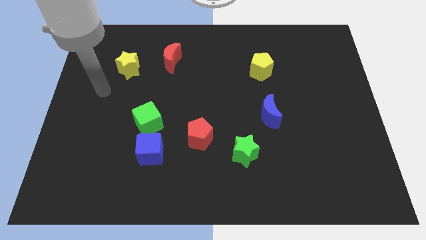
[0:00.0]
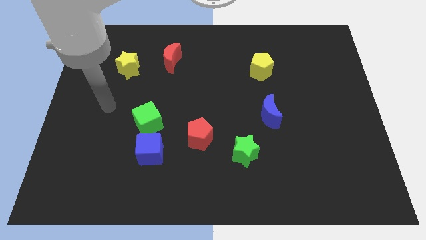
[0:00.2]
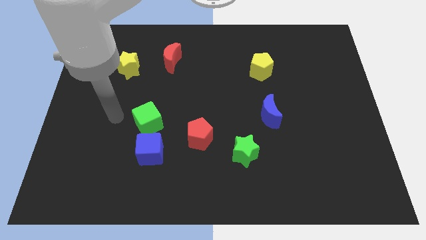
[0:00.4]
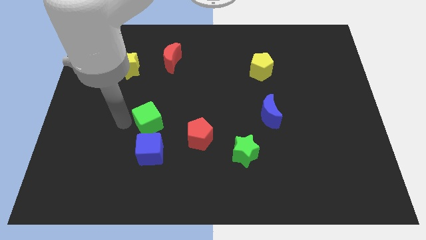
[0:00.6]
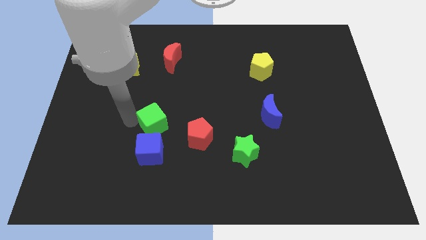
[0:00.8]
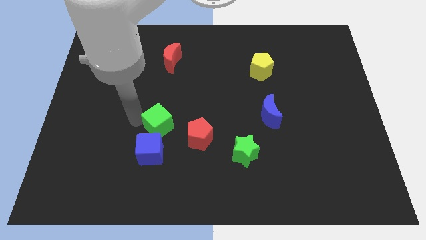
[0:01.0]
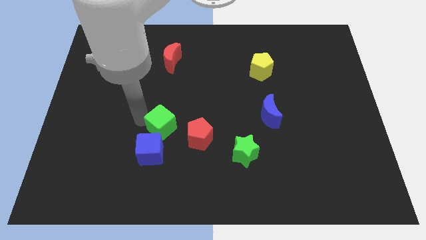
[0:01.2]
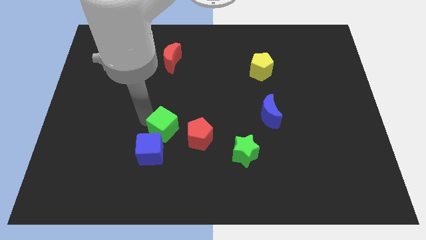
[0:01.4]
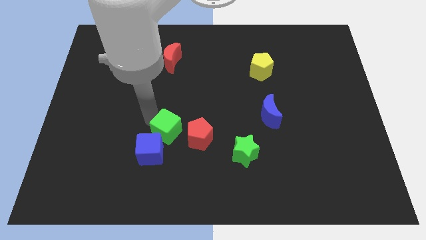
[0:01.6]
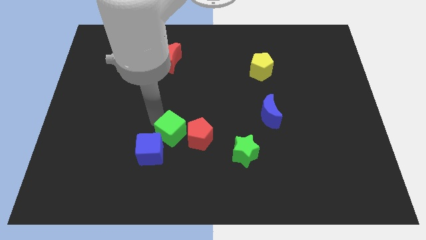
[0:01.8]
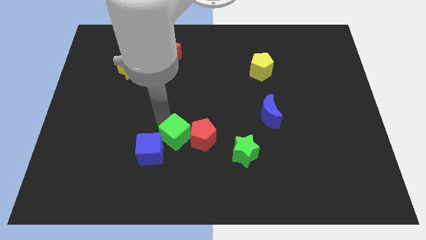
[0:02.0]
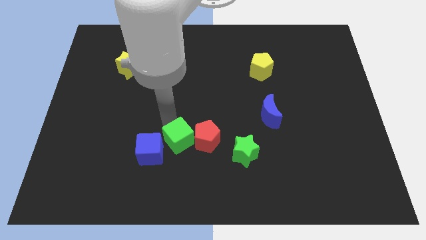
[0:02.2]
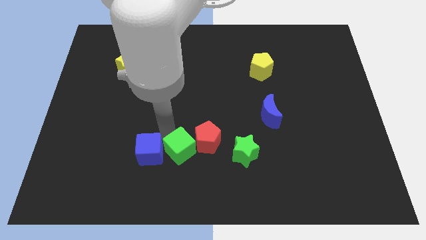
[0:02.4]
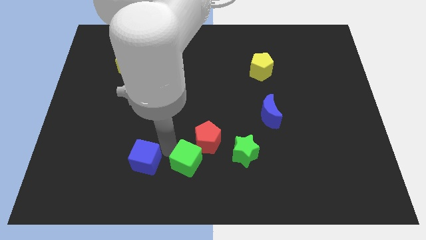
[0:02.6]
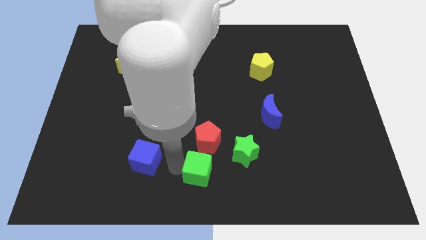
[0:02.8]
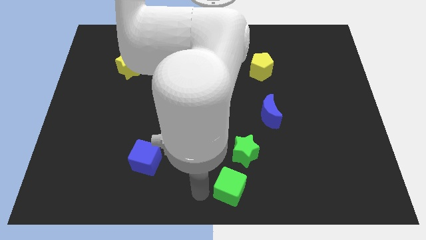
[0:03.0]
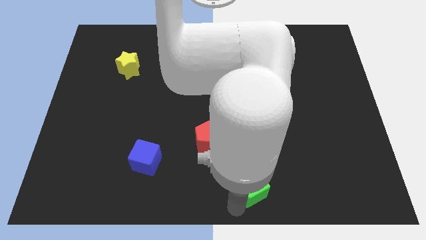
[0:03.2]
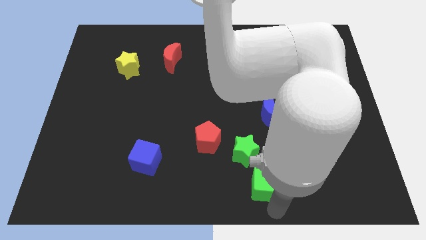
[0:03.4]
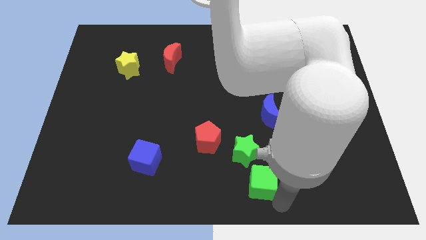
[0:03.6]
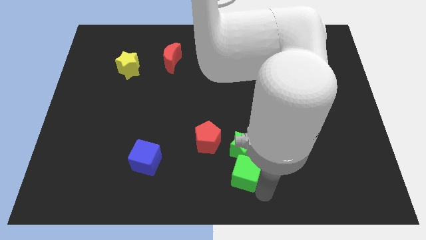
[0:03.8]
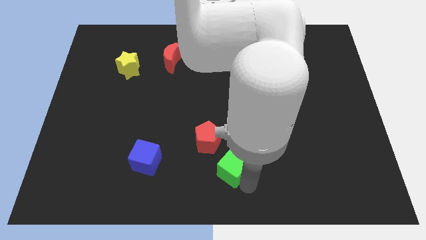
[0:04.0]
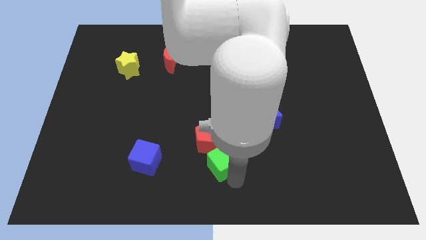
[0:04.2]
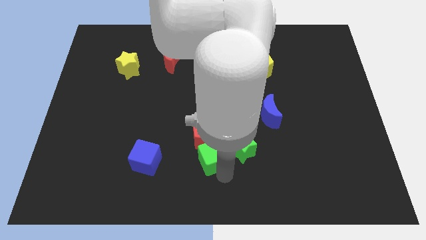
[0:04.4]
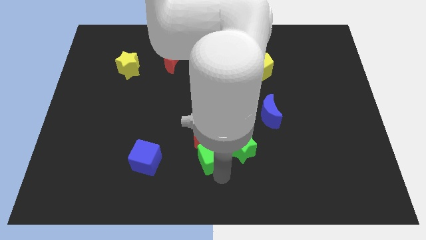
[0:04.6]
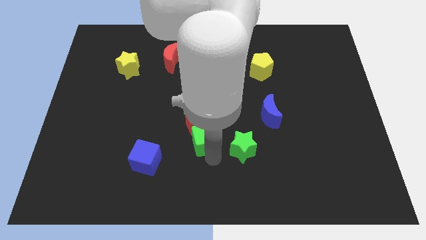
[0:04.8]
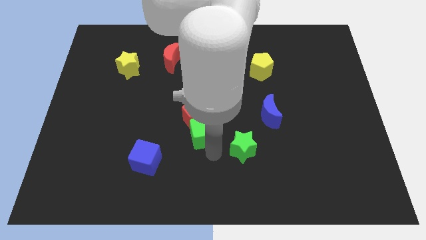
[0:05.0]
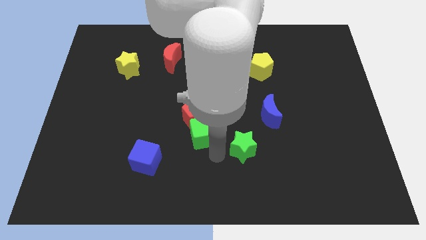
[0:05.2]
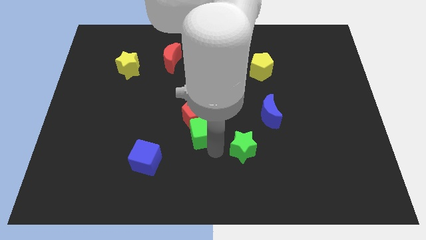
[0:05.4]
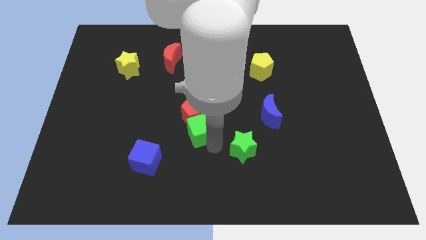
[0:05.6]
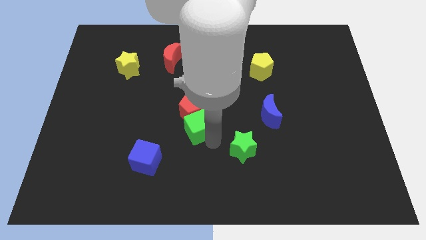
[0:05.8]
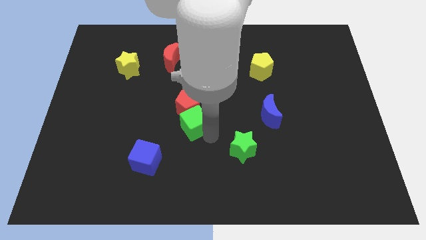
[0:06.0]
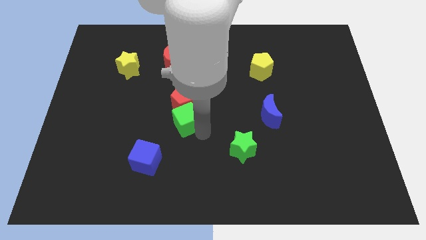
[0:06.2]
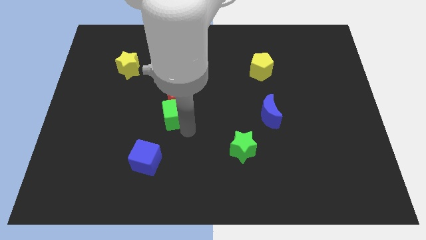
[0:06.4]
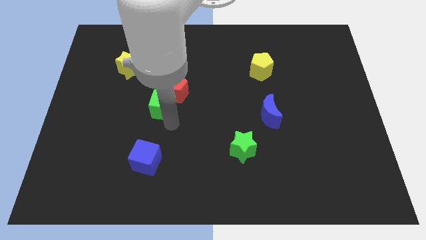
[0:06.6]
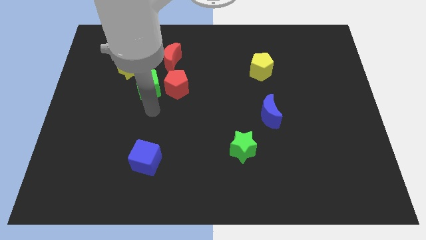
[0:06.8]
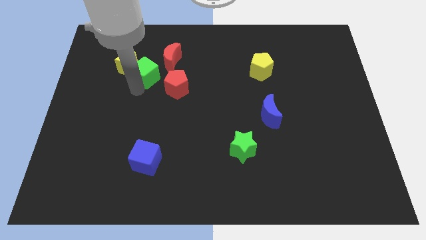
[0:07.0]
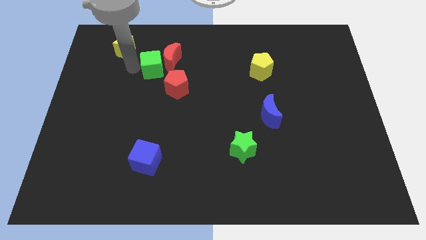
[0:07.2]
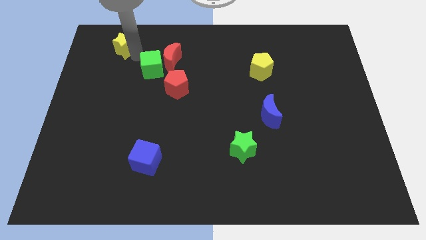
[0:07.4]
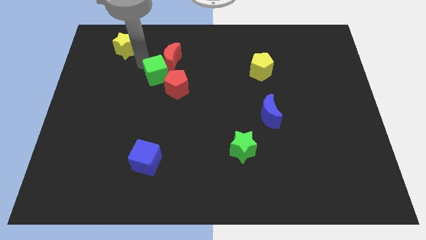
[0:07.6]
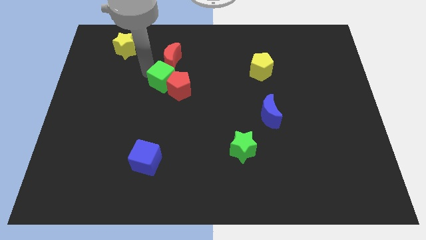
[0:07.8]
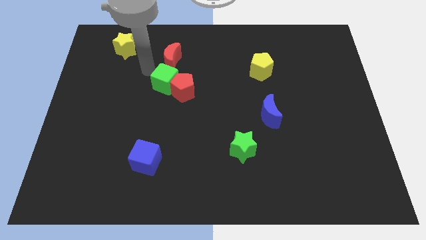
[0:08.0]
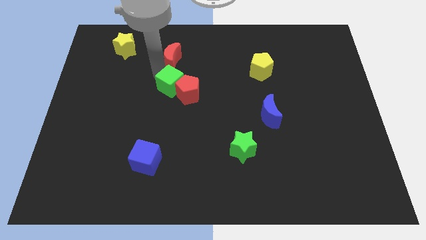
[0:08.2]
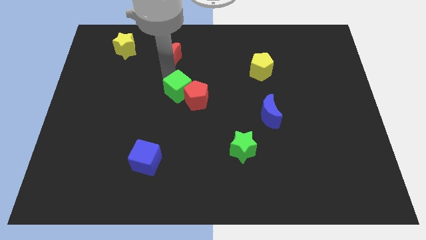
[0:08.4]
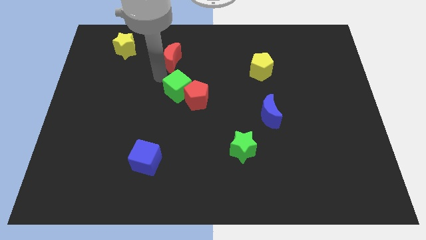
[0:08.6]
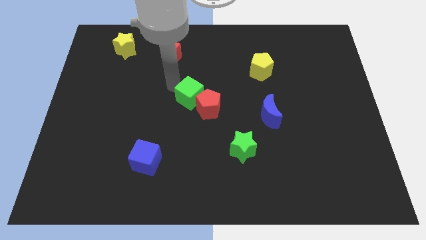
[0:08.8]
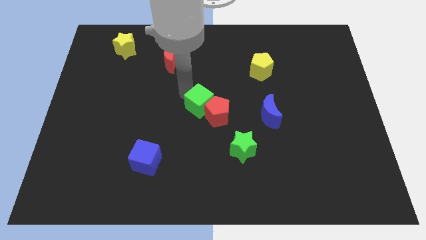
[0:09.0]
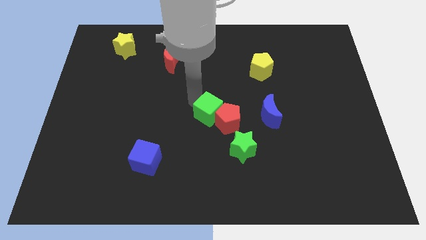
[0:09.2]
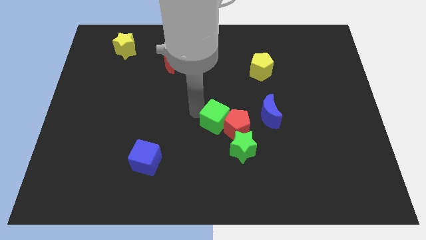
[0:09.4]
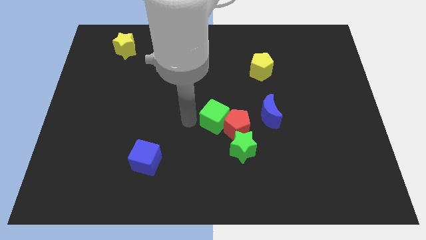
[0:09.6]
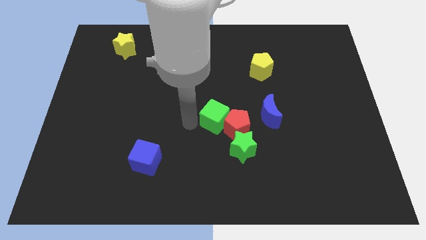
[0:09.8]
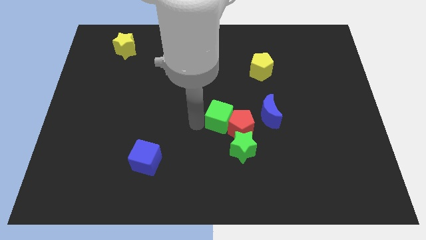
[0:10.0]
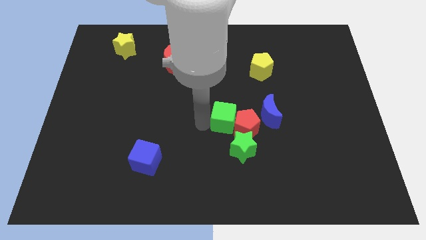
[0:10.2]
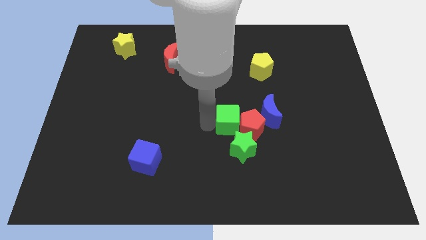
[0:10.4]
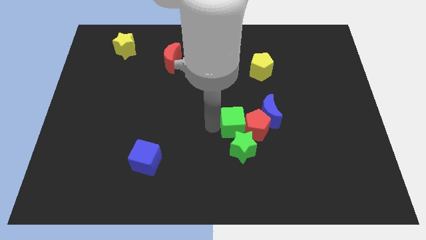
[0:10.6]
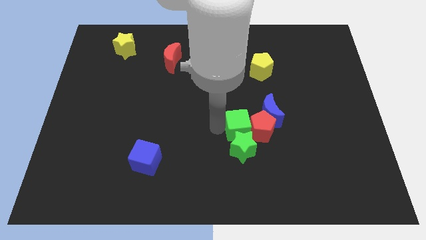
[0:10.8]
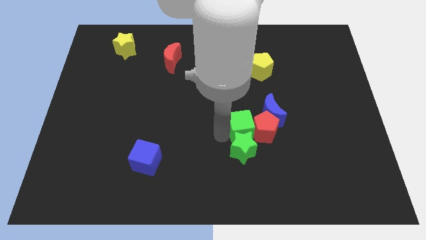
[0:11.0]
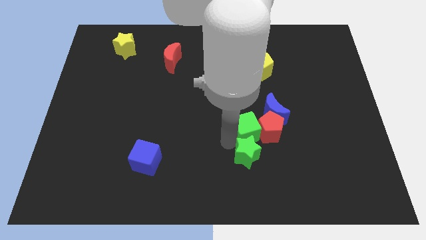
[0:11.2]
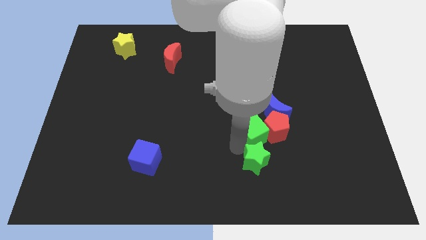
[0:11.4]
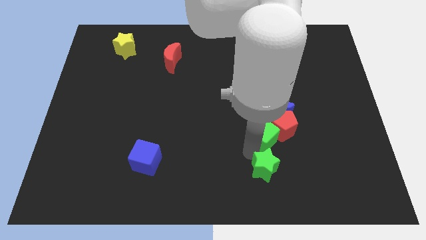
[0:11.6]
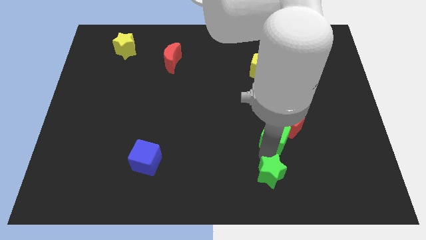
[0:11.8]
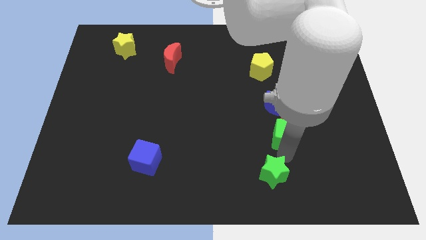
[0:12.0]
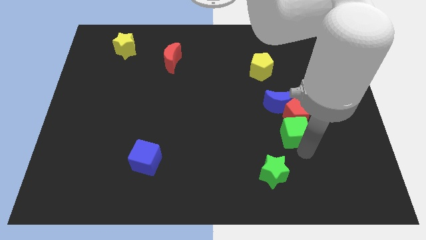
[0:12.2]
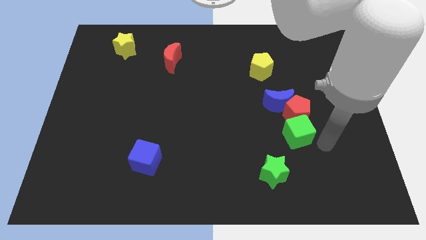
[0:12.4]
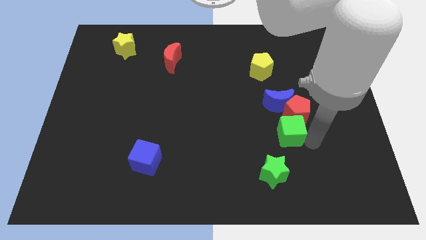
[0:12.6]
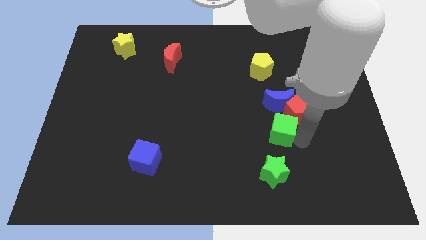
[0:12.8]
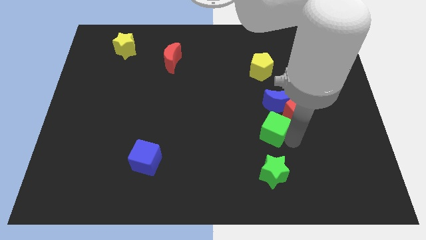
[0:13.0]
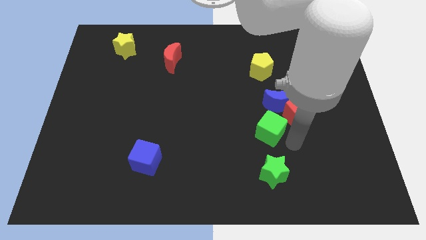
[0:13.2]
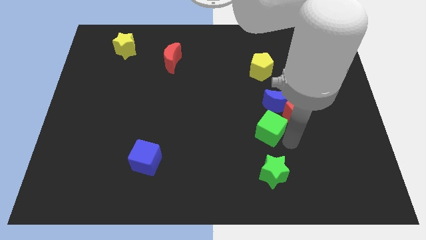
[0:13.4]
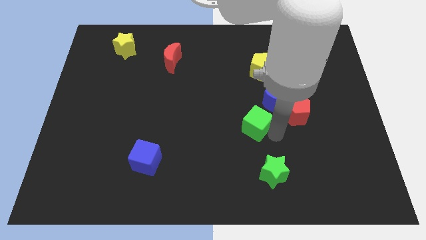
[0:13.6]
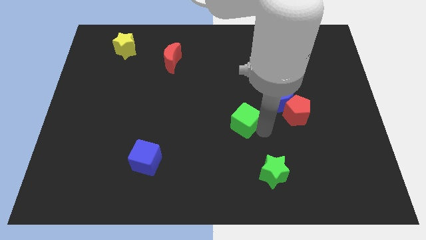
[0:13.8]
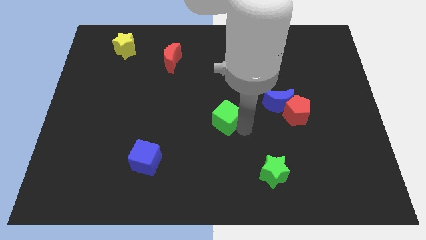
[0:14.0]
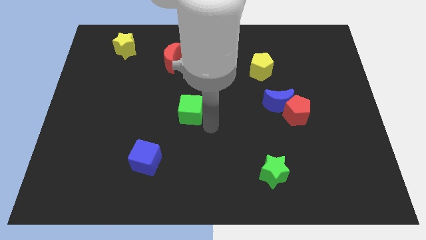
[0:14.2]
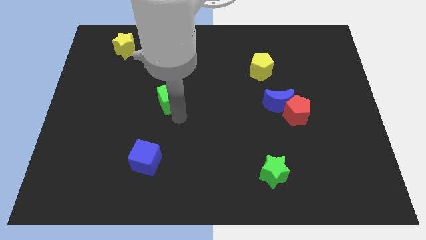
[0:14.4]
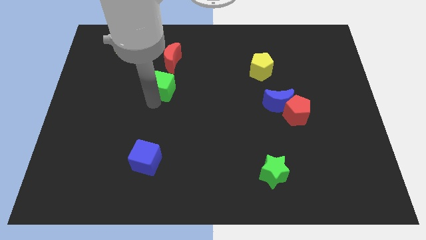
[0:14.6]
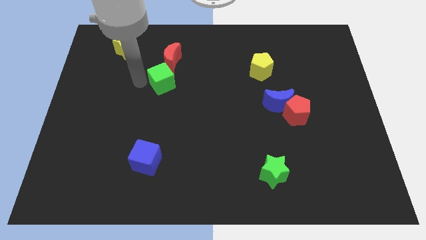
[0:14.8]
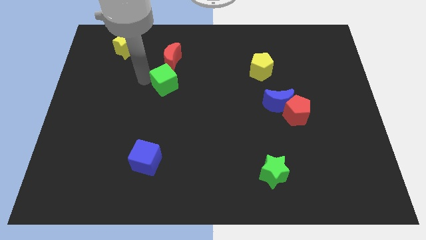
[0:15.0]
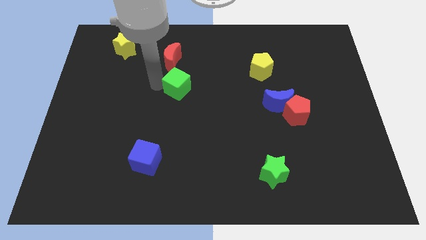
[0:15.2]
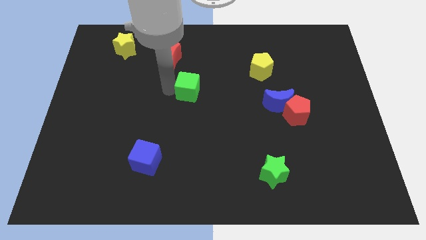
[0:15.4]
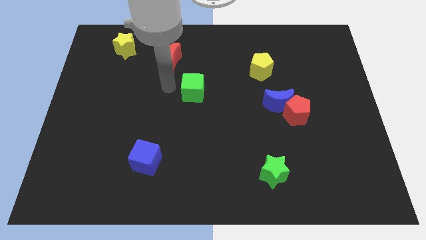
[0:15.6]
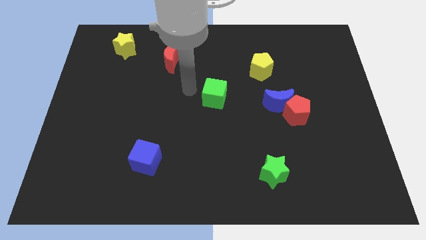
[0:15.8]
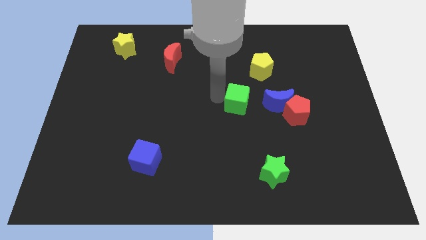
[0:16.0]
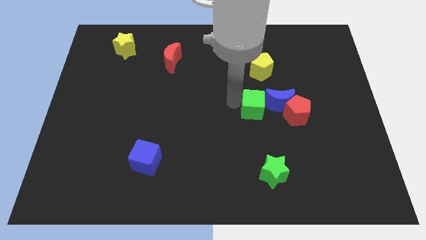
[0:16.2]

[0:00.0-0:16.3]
push the green cube to the blue moon
